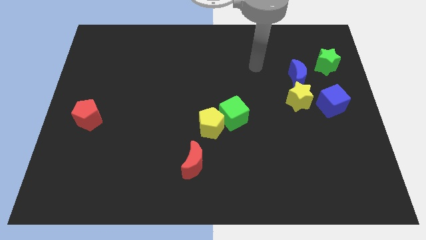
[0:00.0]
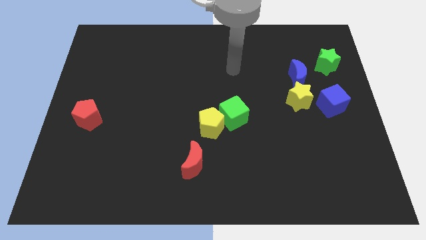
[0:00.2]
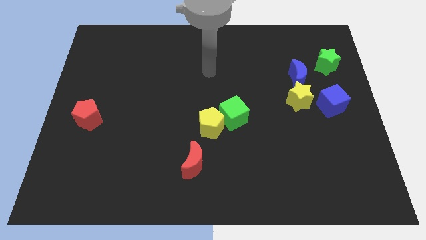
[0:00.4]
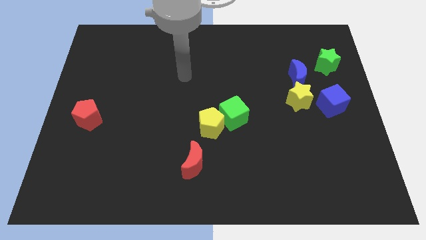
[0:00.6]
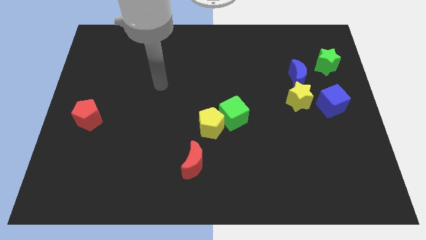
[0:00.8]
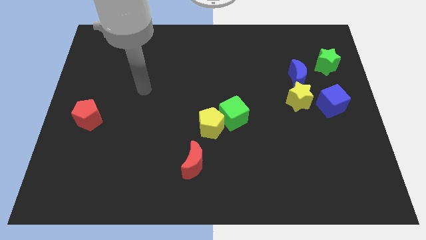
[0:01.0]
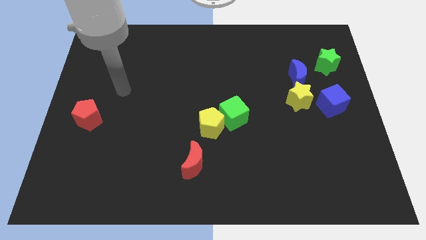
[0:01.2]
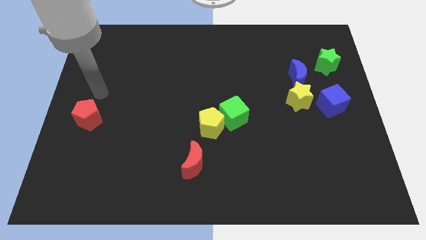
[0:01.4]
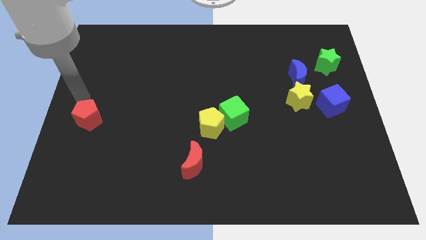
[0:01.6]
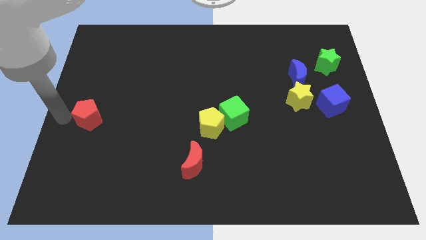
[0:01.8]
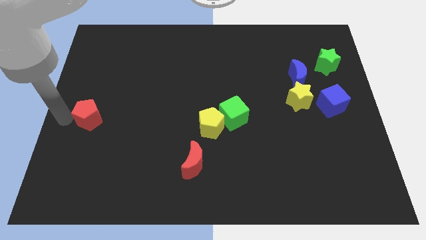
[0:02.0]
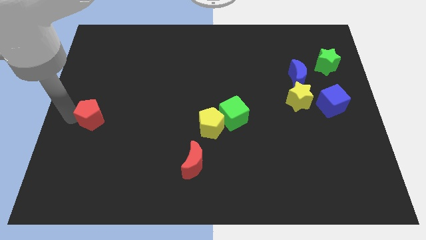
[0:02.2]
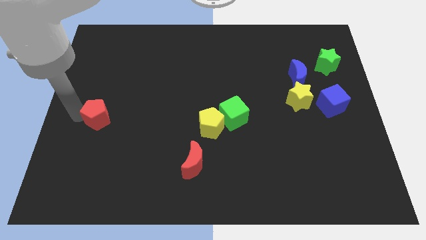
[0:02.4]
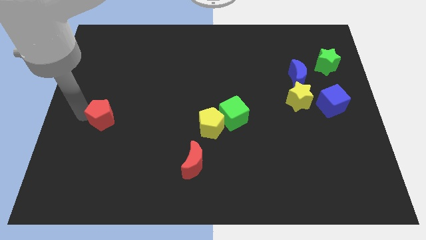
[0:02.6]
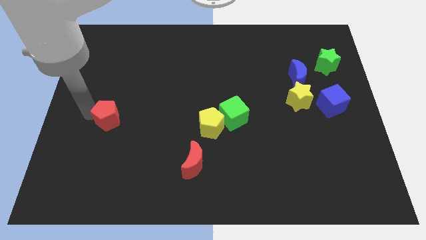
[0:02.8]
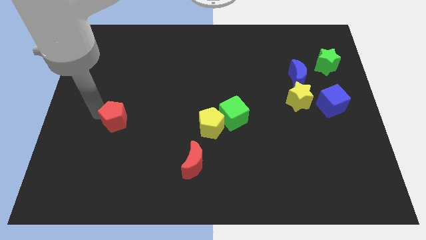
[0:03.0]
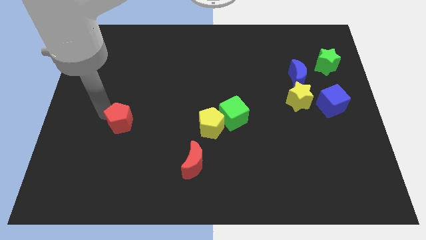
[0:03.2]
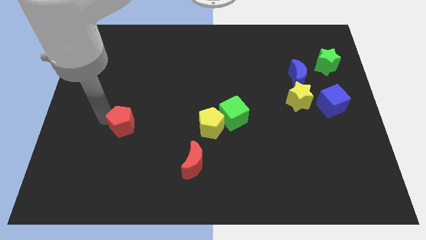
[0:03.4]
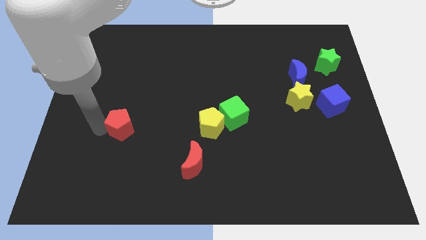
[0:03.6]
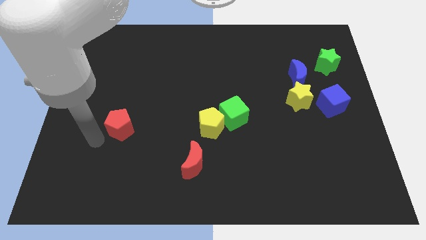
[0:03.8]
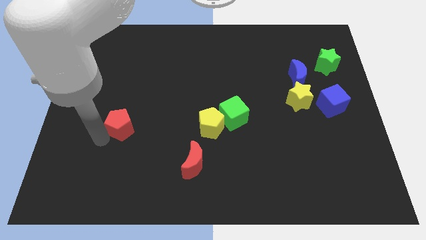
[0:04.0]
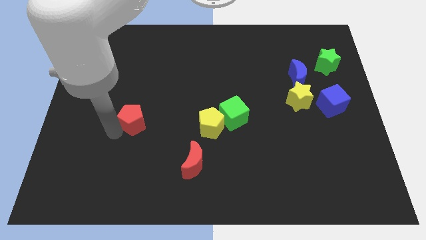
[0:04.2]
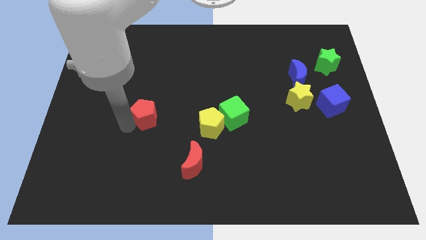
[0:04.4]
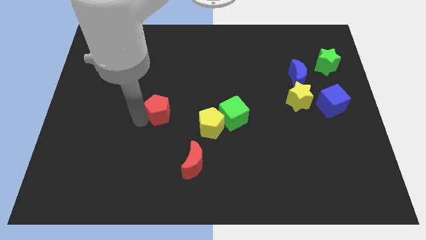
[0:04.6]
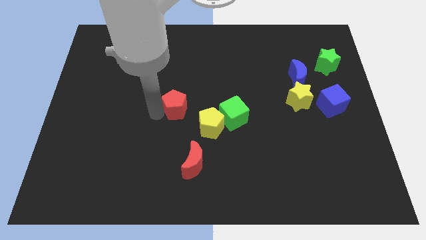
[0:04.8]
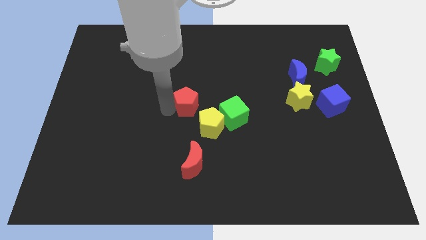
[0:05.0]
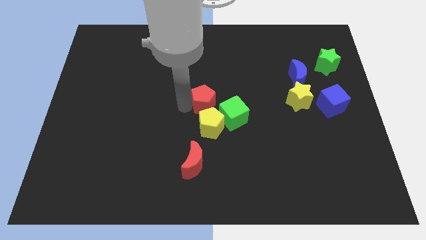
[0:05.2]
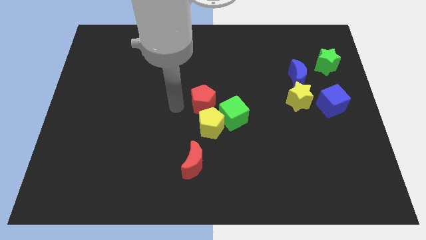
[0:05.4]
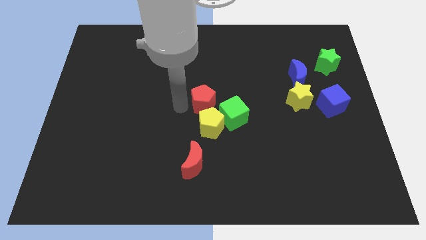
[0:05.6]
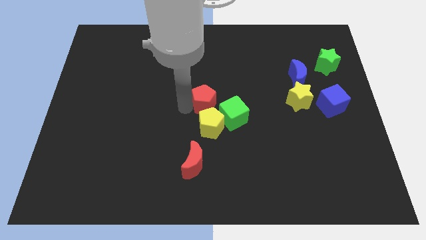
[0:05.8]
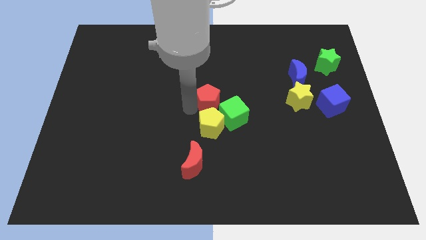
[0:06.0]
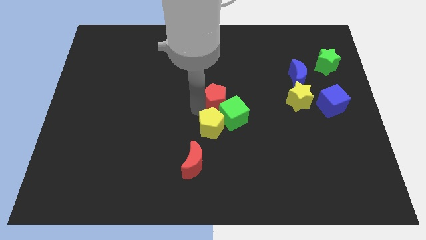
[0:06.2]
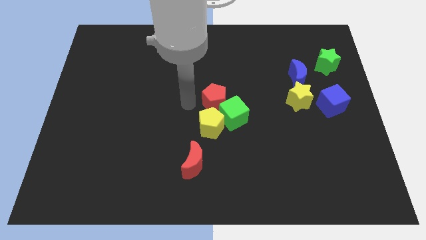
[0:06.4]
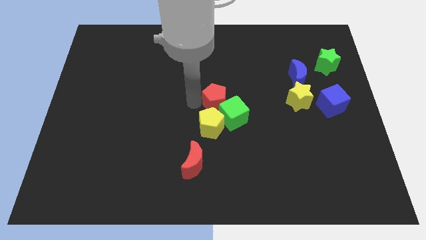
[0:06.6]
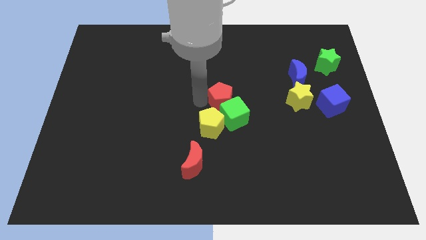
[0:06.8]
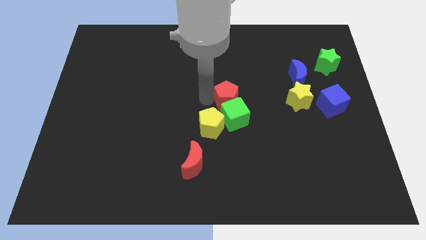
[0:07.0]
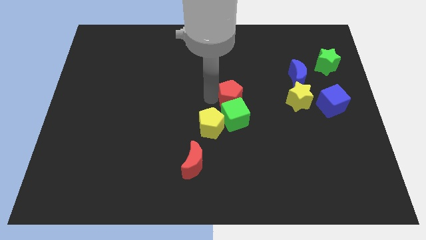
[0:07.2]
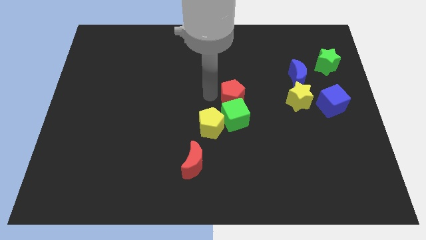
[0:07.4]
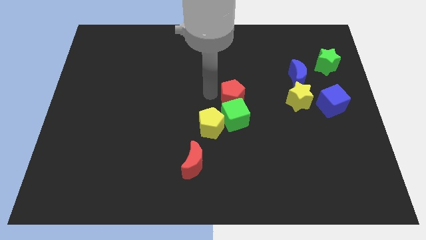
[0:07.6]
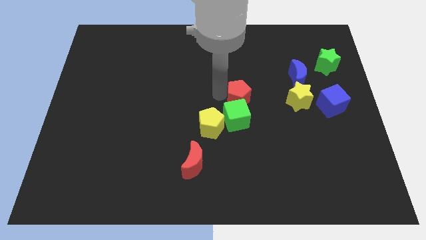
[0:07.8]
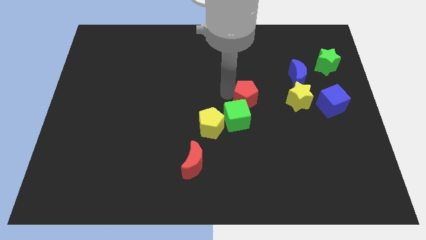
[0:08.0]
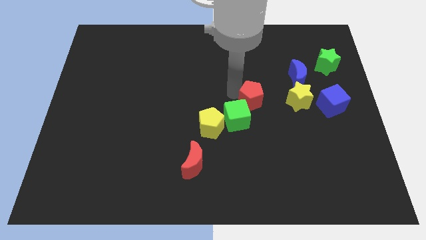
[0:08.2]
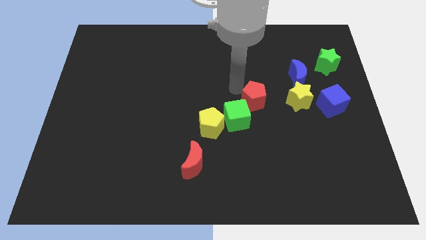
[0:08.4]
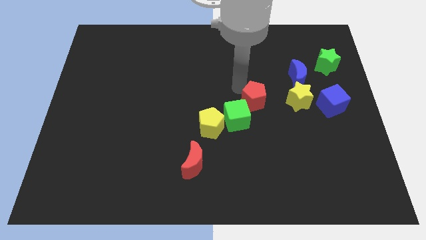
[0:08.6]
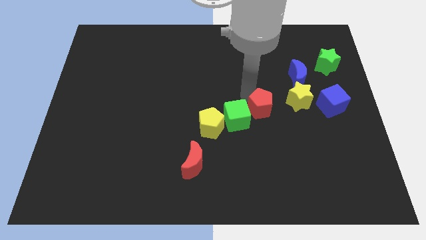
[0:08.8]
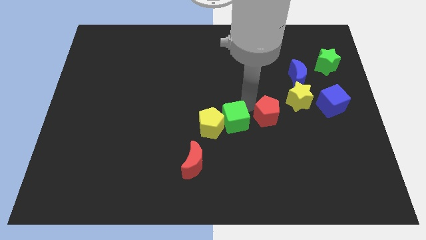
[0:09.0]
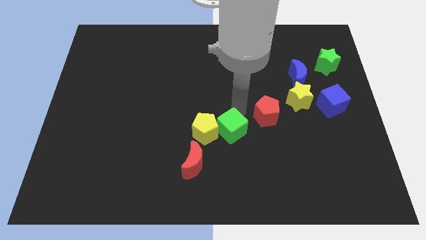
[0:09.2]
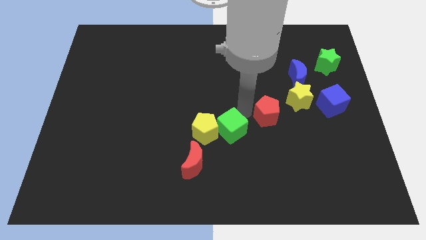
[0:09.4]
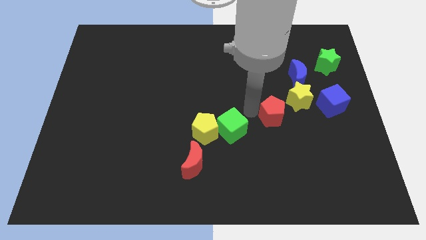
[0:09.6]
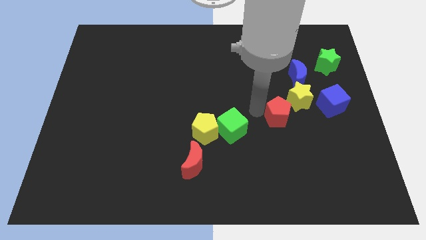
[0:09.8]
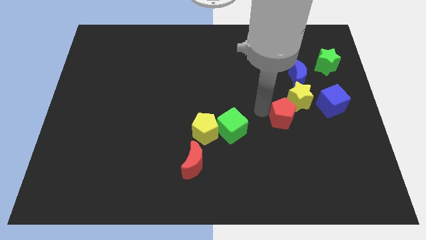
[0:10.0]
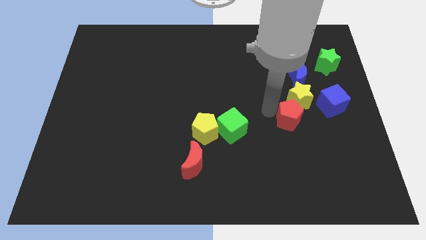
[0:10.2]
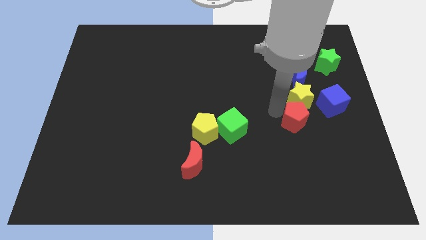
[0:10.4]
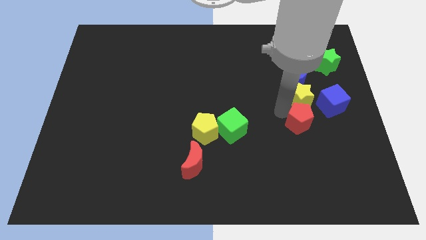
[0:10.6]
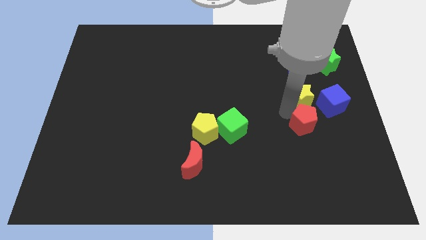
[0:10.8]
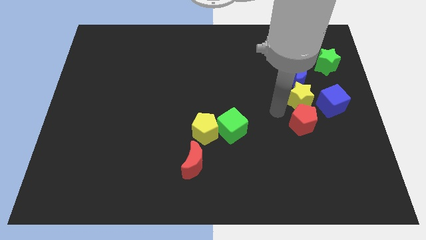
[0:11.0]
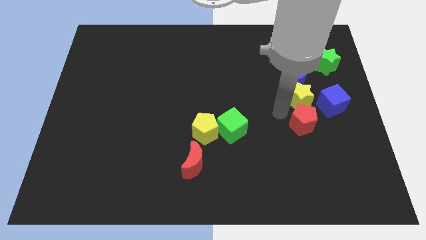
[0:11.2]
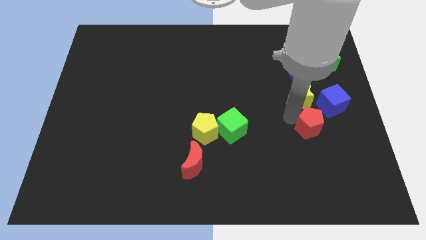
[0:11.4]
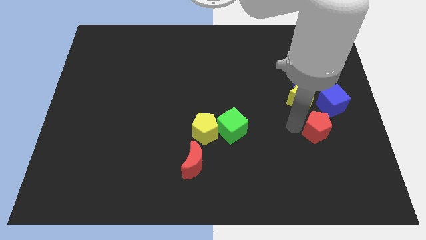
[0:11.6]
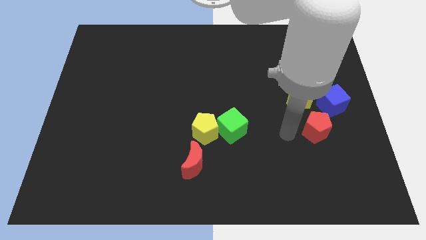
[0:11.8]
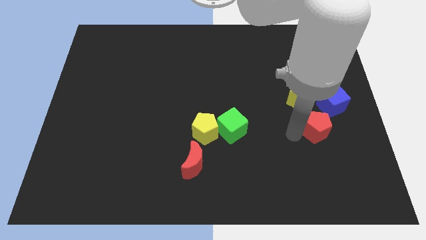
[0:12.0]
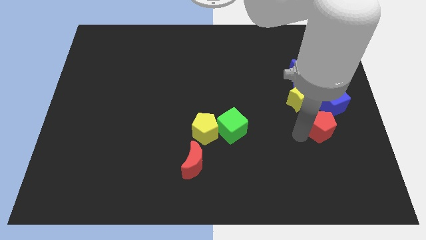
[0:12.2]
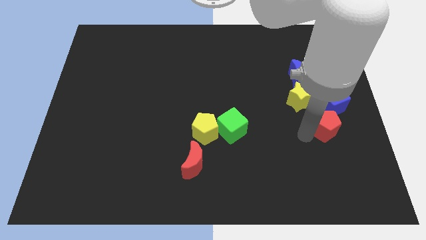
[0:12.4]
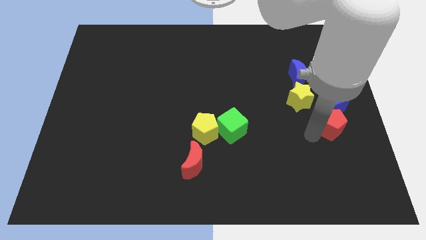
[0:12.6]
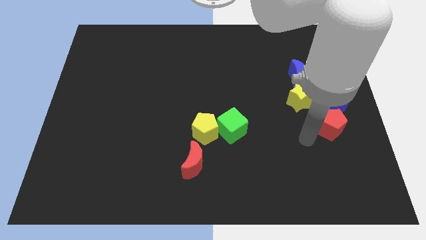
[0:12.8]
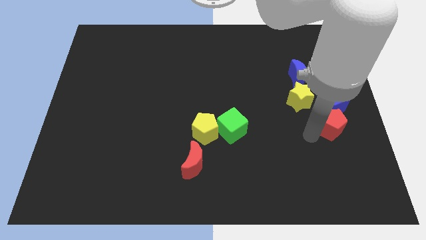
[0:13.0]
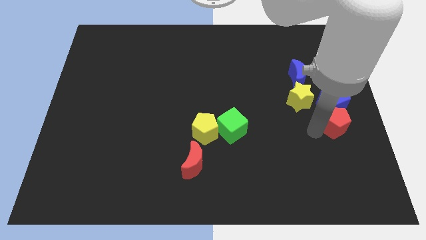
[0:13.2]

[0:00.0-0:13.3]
put the red pentagon to the right side
